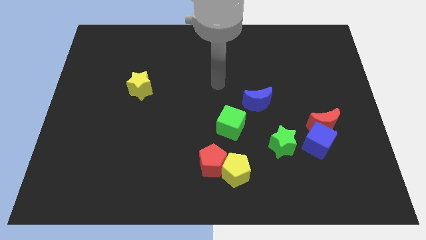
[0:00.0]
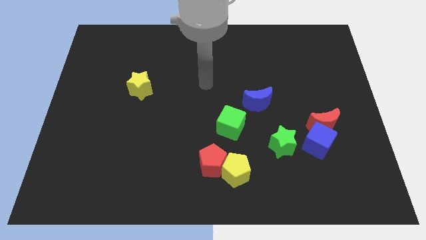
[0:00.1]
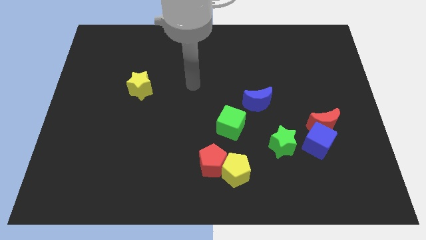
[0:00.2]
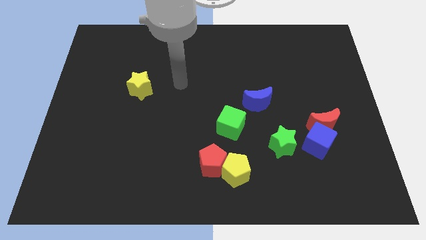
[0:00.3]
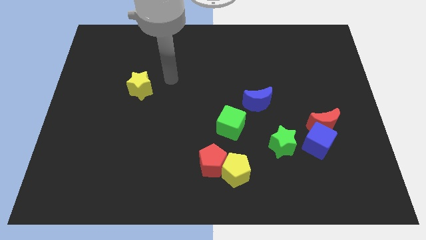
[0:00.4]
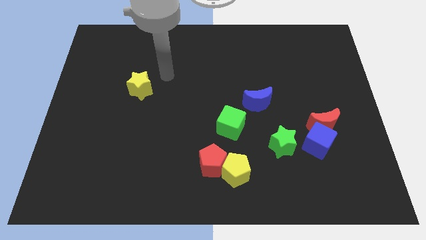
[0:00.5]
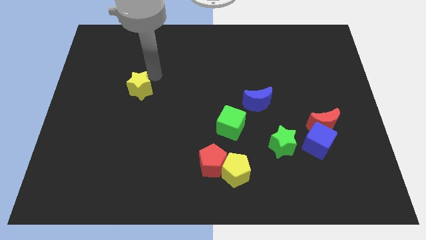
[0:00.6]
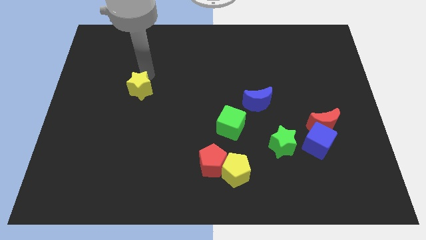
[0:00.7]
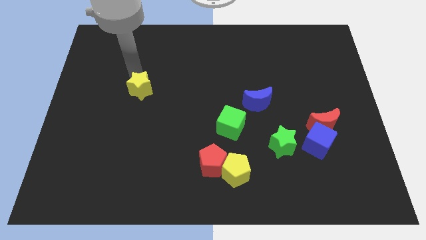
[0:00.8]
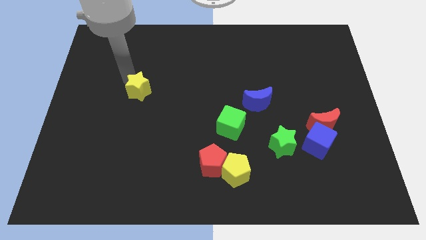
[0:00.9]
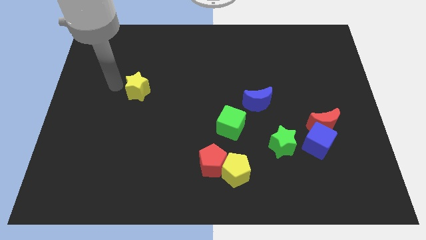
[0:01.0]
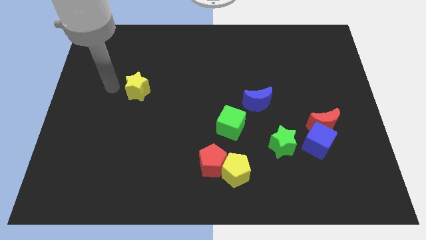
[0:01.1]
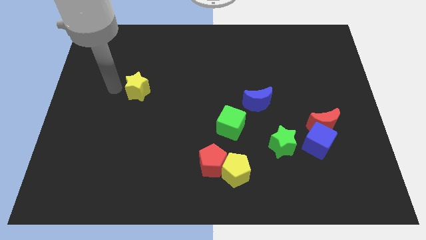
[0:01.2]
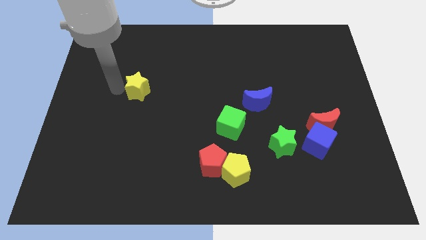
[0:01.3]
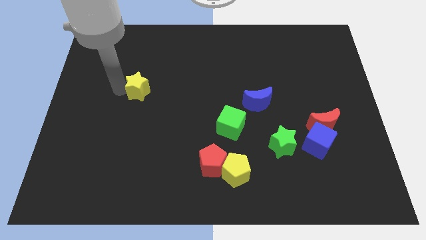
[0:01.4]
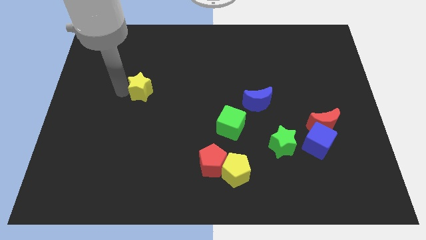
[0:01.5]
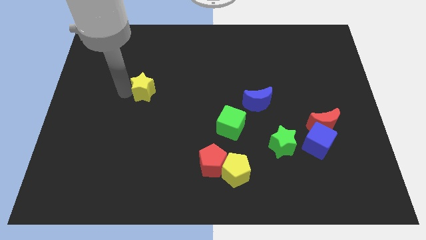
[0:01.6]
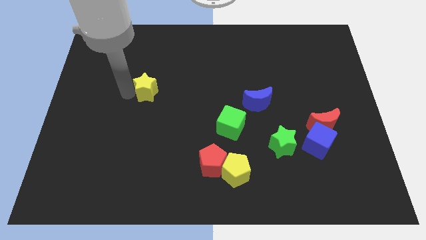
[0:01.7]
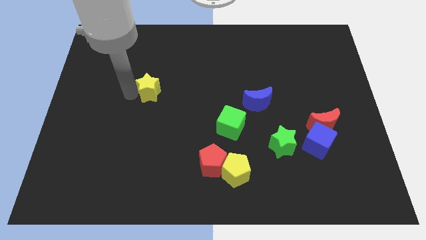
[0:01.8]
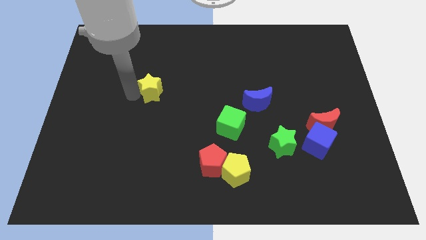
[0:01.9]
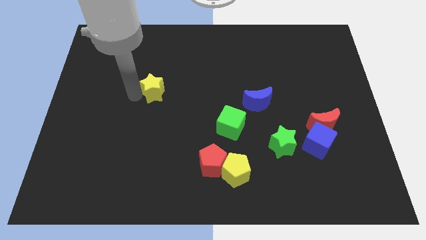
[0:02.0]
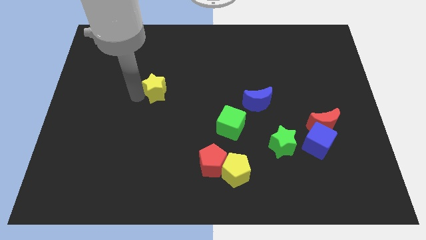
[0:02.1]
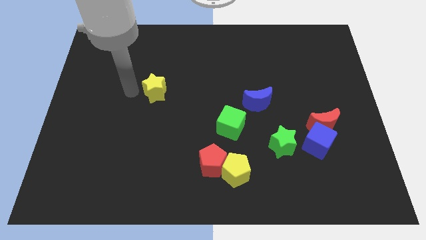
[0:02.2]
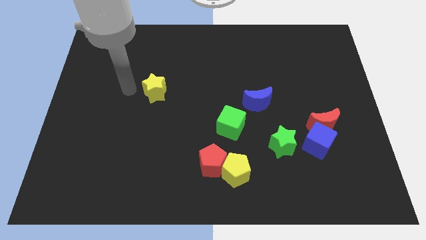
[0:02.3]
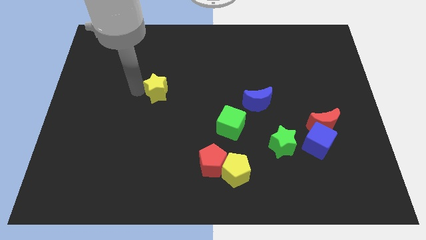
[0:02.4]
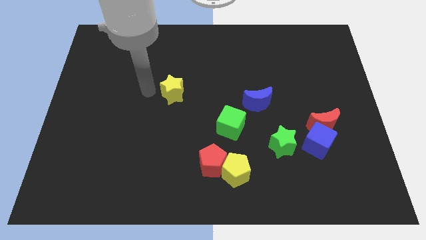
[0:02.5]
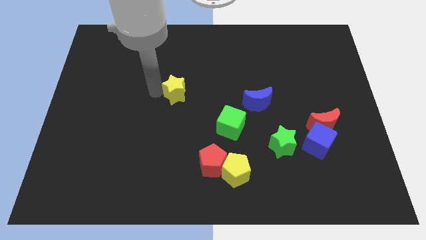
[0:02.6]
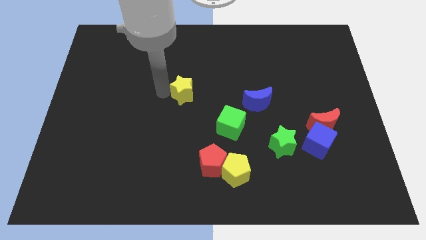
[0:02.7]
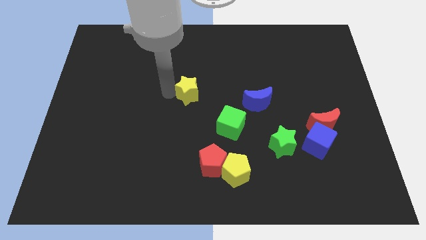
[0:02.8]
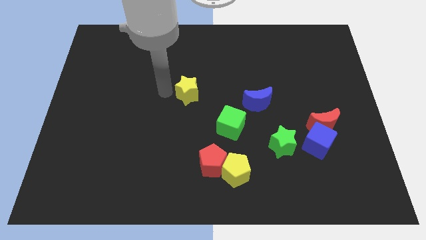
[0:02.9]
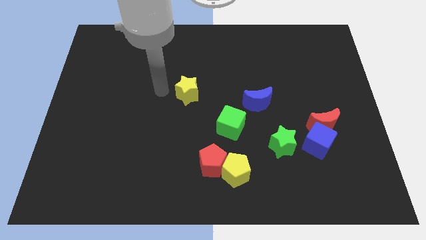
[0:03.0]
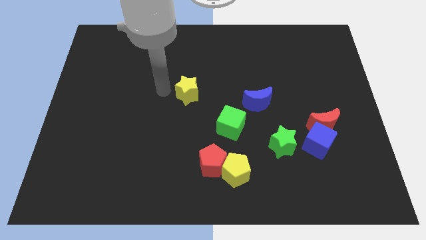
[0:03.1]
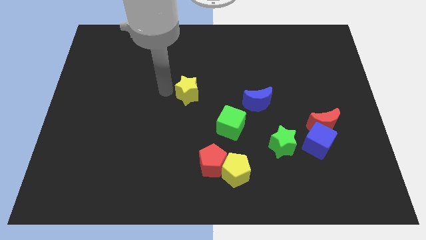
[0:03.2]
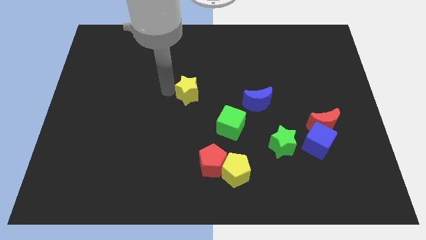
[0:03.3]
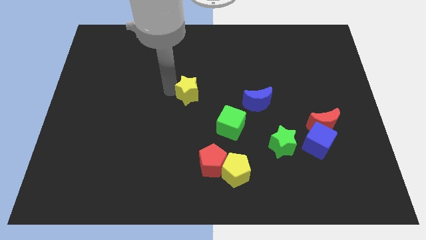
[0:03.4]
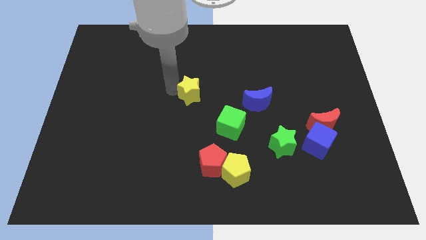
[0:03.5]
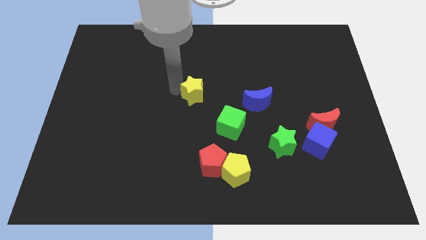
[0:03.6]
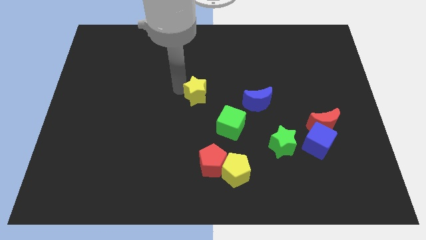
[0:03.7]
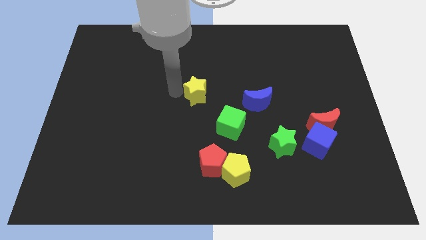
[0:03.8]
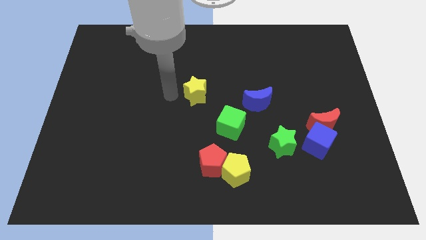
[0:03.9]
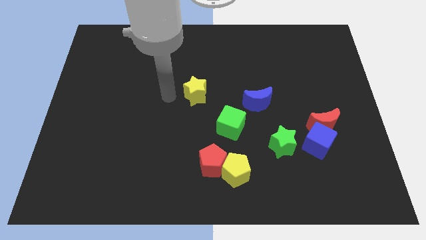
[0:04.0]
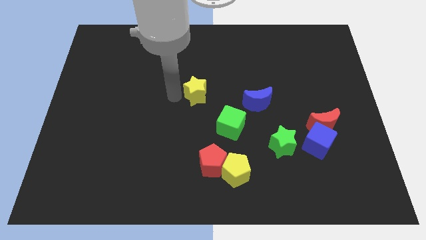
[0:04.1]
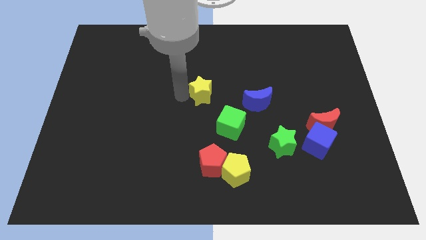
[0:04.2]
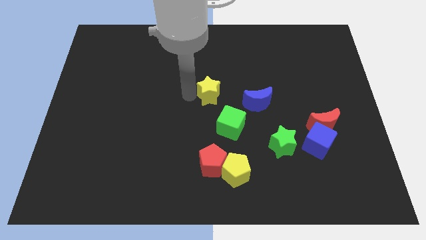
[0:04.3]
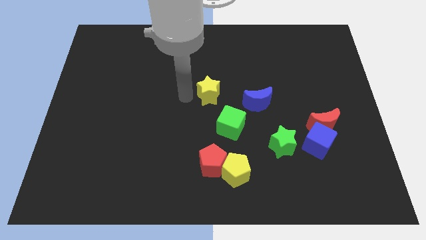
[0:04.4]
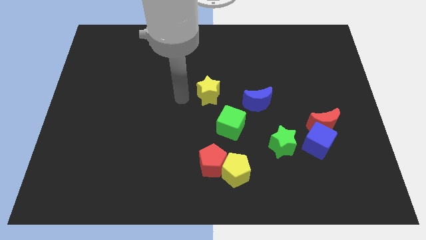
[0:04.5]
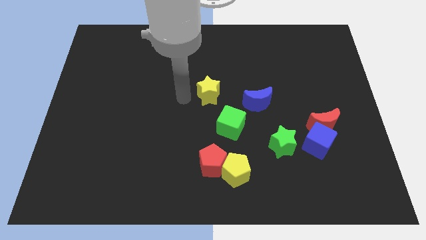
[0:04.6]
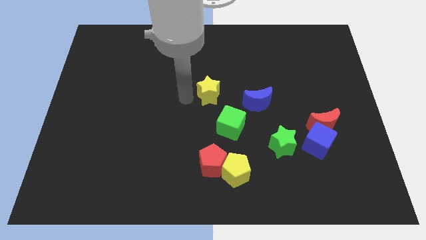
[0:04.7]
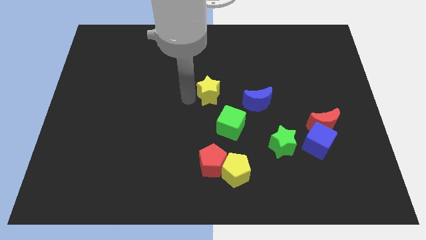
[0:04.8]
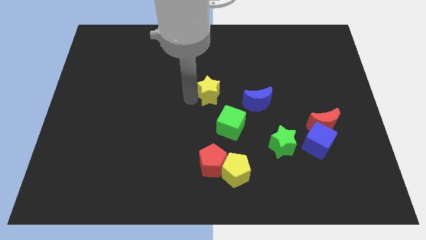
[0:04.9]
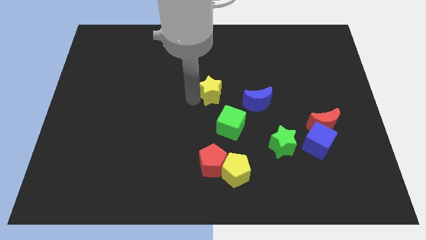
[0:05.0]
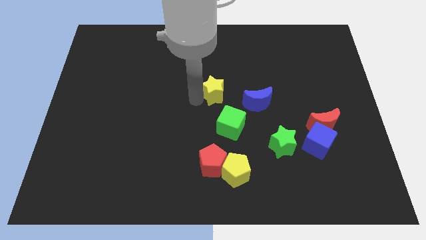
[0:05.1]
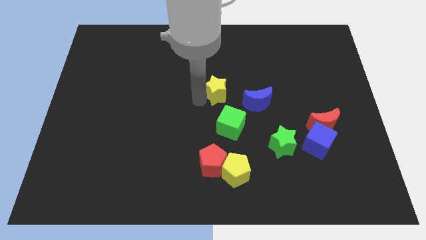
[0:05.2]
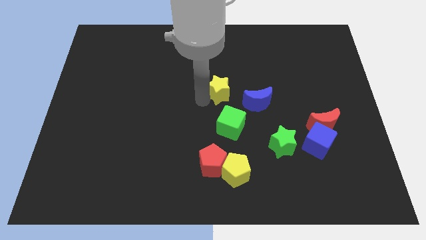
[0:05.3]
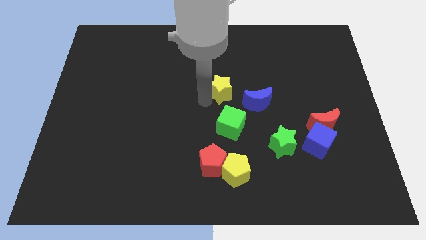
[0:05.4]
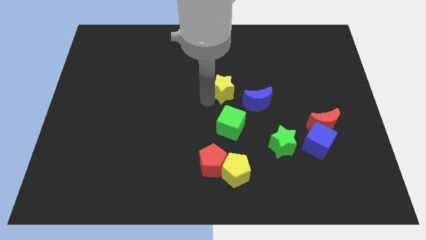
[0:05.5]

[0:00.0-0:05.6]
slide the yellow star right

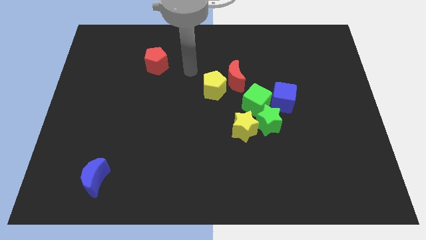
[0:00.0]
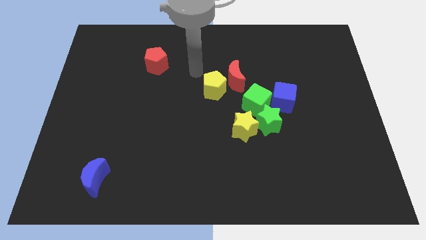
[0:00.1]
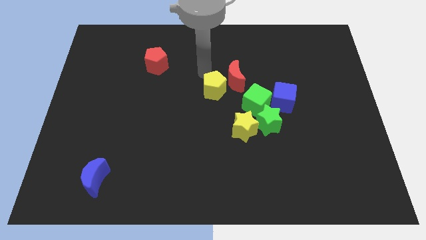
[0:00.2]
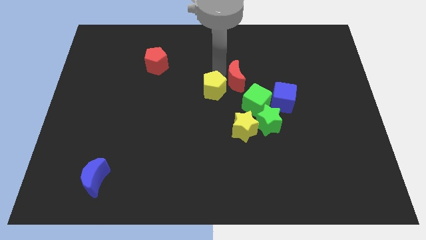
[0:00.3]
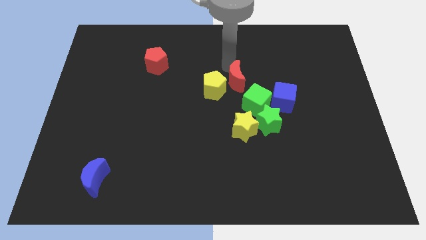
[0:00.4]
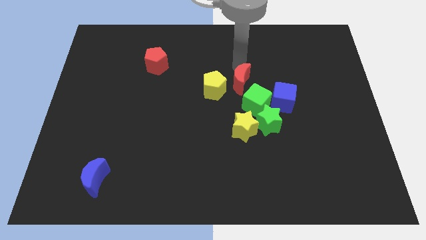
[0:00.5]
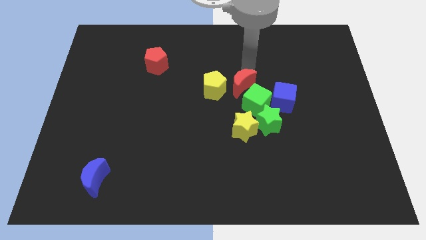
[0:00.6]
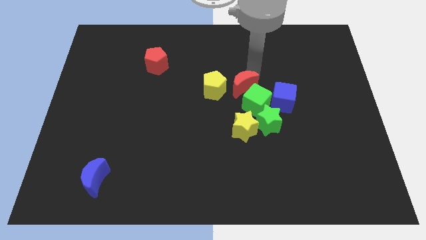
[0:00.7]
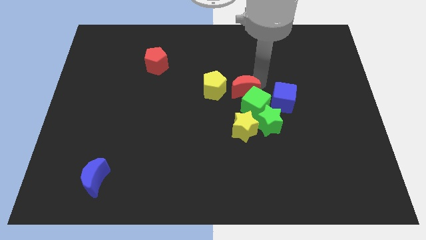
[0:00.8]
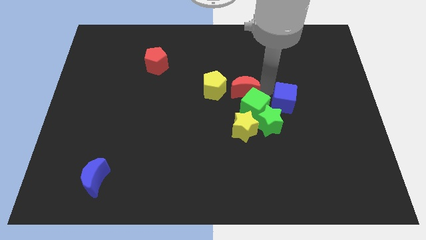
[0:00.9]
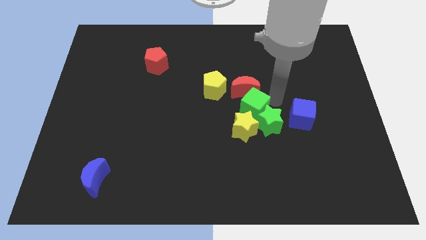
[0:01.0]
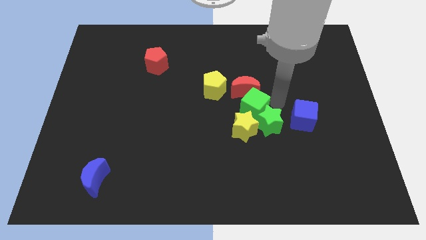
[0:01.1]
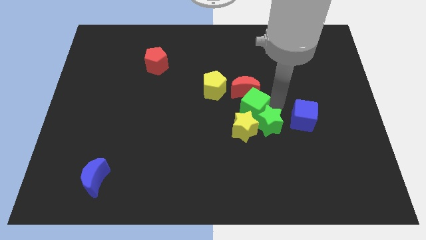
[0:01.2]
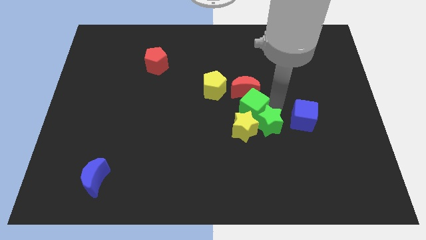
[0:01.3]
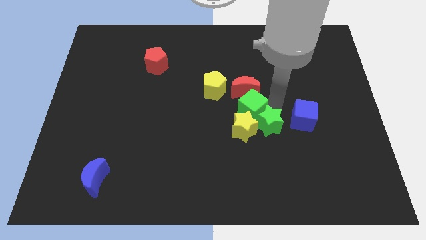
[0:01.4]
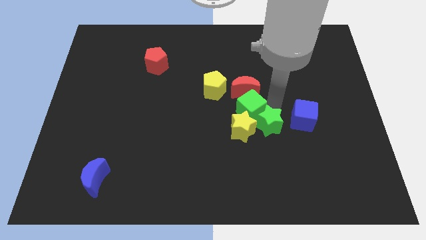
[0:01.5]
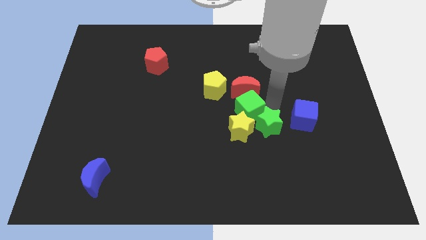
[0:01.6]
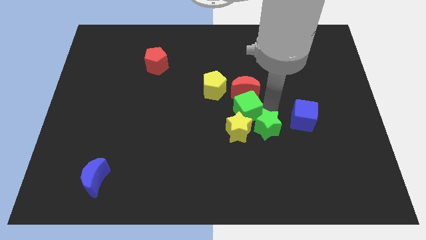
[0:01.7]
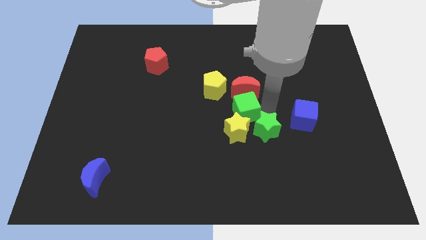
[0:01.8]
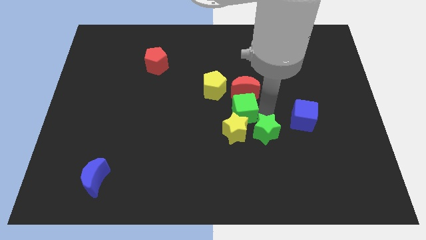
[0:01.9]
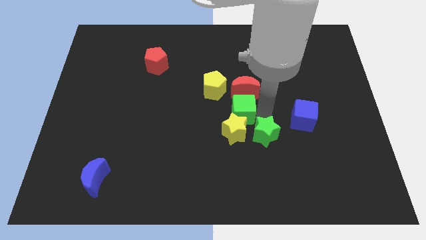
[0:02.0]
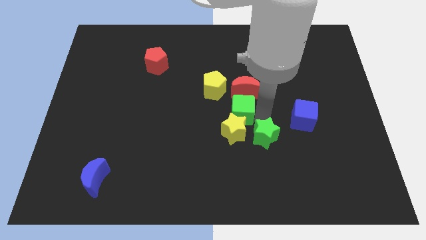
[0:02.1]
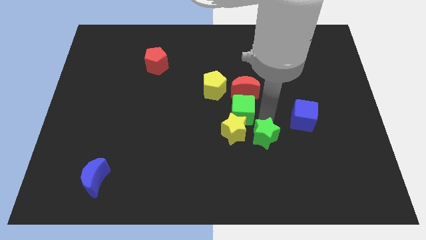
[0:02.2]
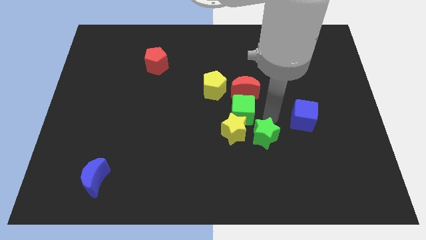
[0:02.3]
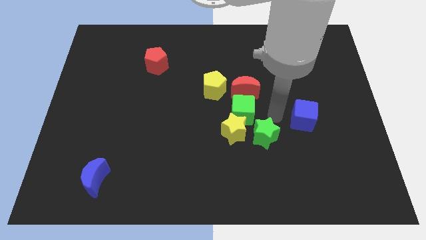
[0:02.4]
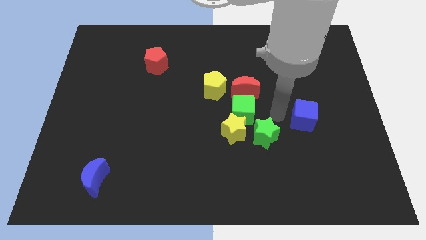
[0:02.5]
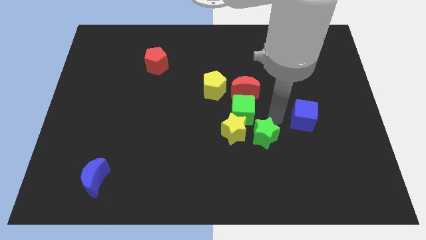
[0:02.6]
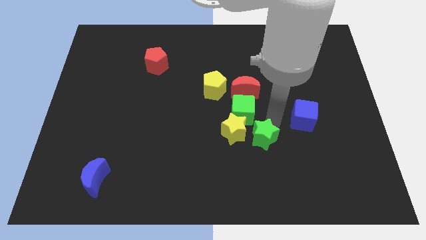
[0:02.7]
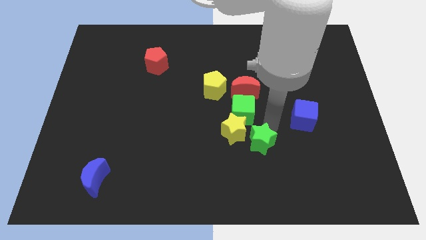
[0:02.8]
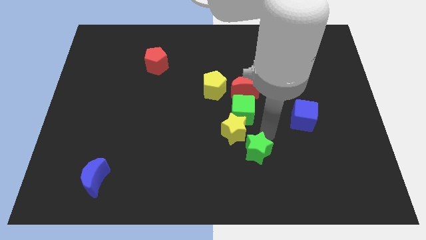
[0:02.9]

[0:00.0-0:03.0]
slightly move the green star down and to the left
